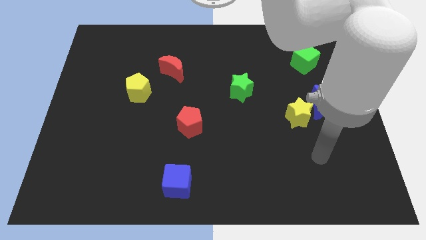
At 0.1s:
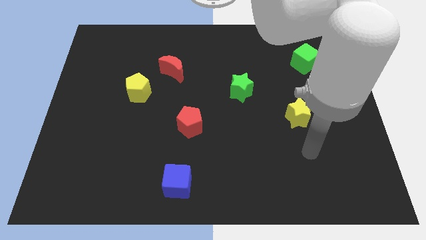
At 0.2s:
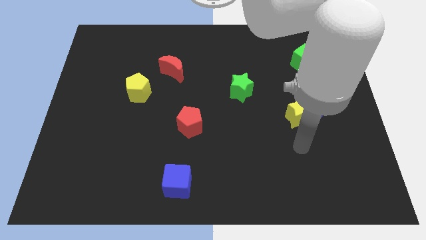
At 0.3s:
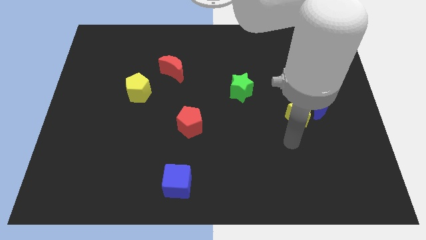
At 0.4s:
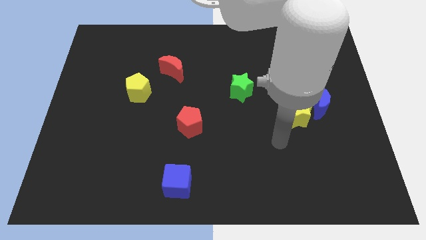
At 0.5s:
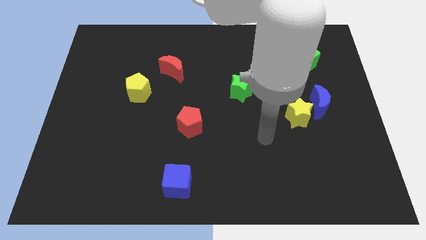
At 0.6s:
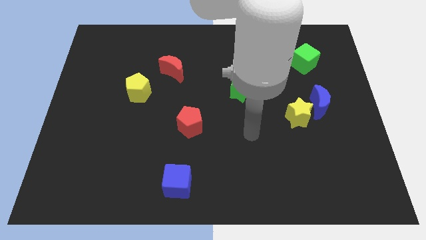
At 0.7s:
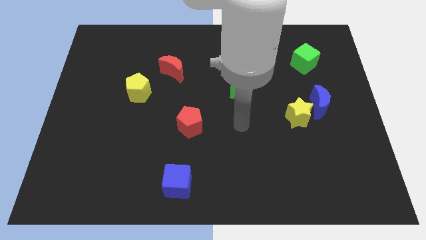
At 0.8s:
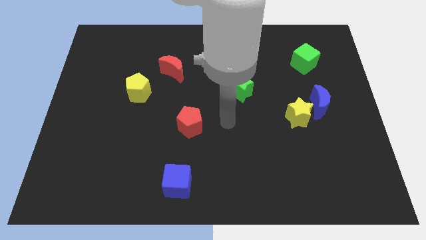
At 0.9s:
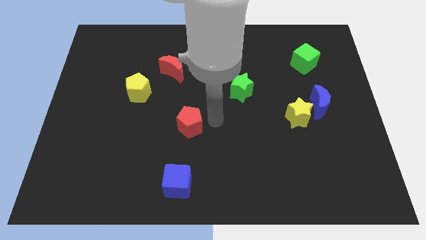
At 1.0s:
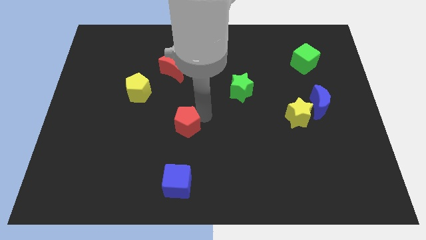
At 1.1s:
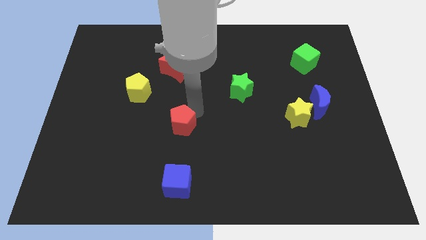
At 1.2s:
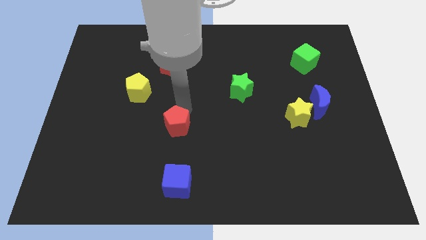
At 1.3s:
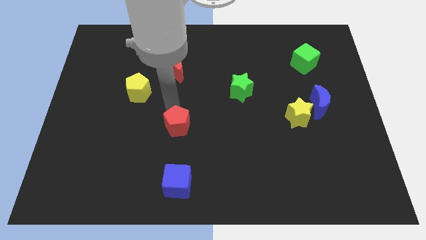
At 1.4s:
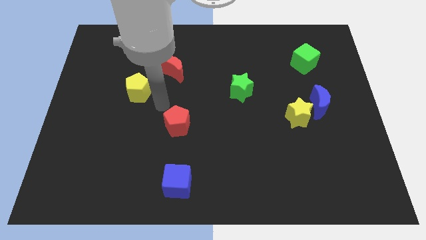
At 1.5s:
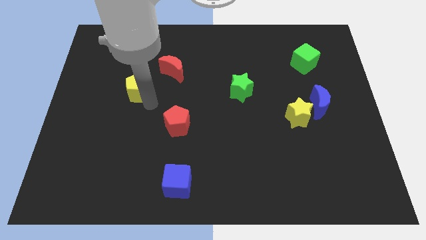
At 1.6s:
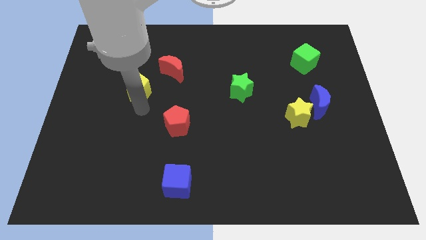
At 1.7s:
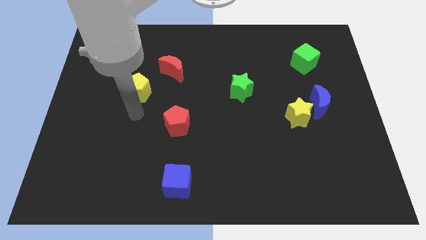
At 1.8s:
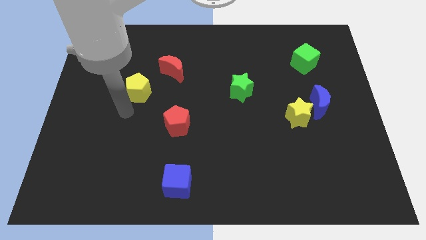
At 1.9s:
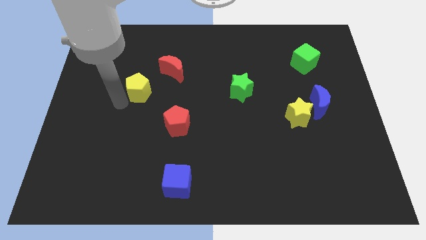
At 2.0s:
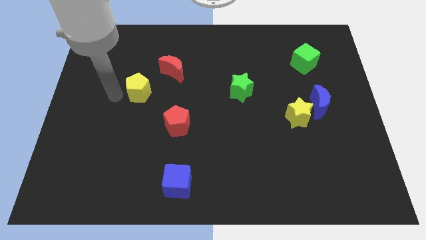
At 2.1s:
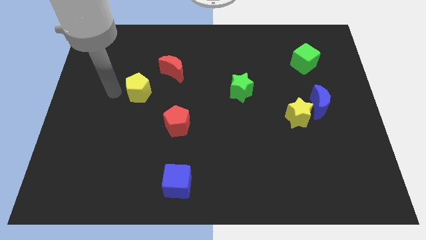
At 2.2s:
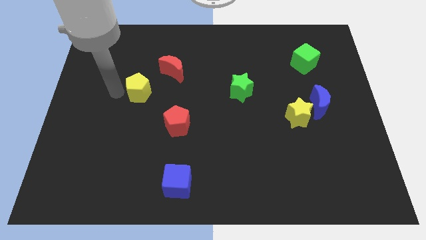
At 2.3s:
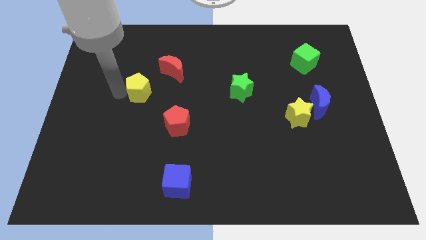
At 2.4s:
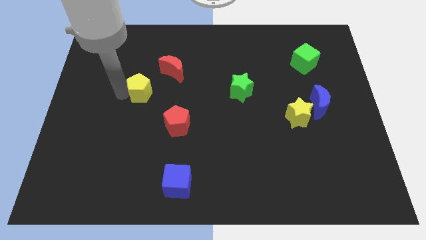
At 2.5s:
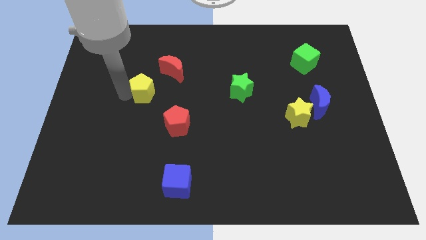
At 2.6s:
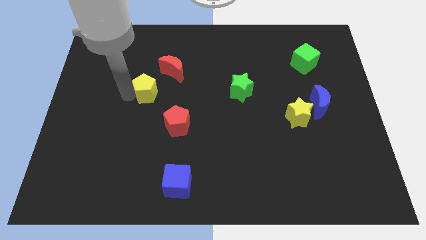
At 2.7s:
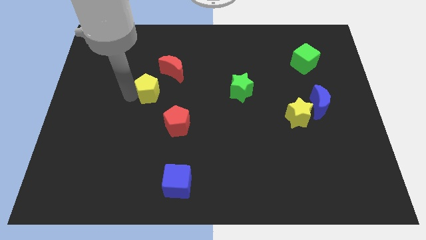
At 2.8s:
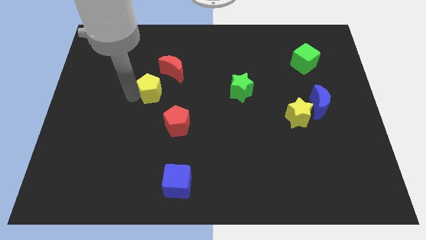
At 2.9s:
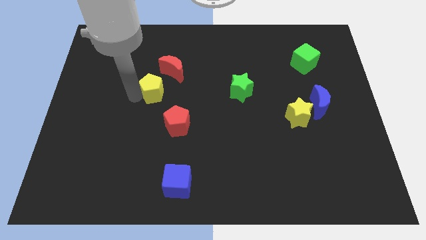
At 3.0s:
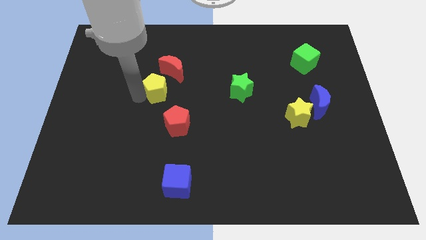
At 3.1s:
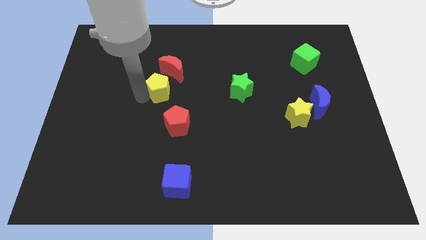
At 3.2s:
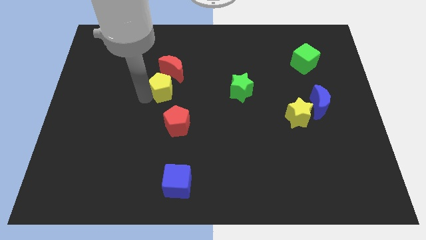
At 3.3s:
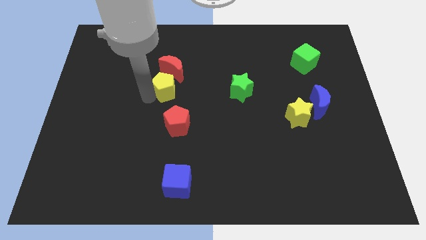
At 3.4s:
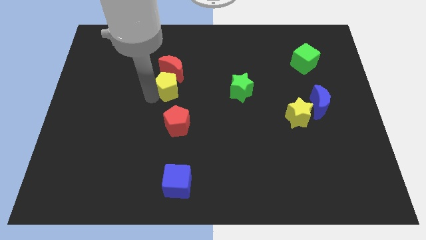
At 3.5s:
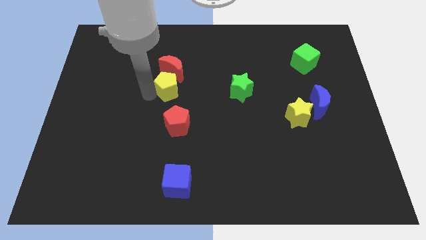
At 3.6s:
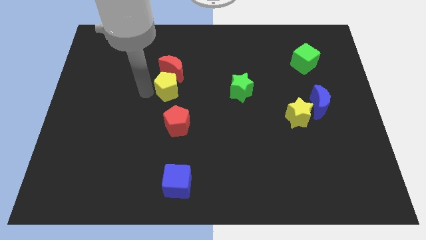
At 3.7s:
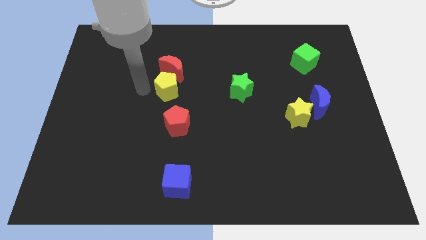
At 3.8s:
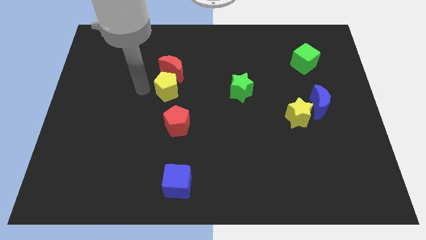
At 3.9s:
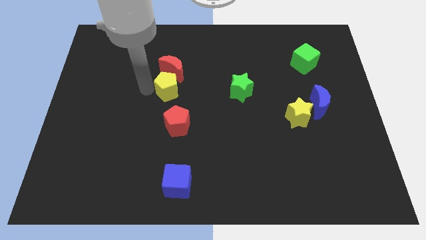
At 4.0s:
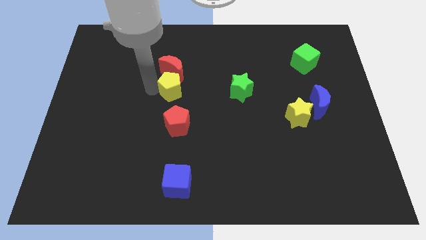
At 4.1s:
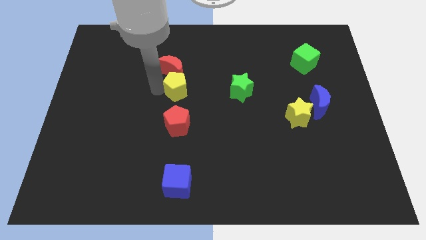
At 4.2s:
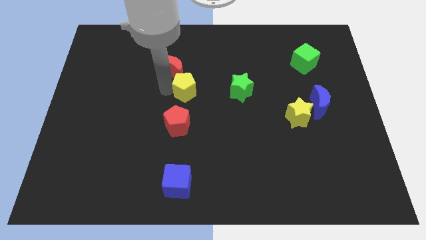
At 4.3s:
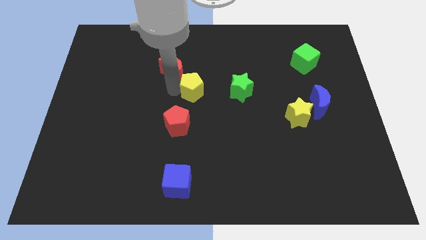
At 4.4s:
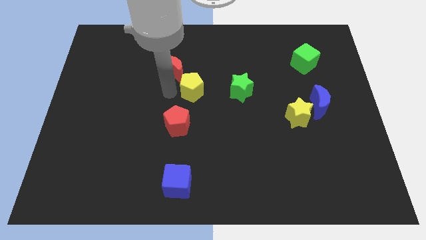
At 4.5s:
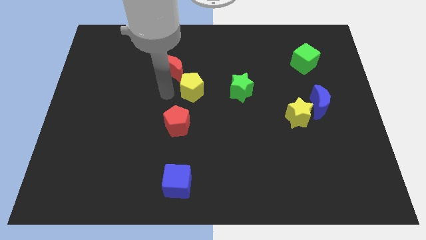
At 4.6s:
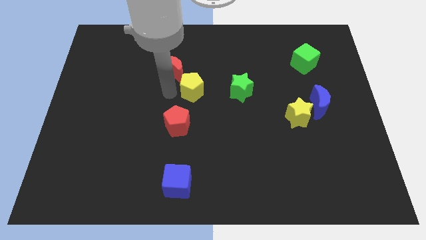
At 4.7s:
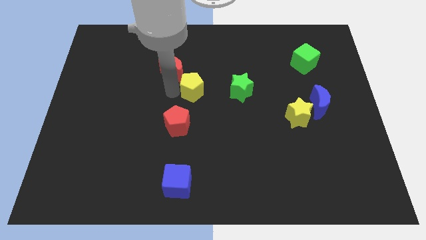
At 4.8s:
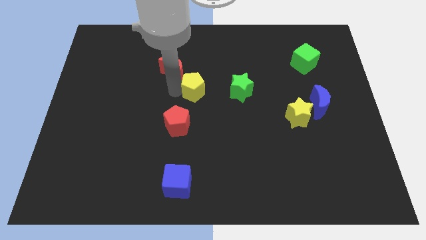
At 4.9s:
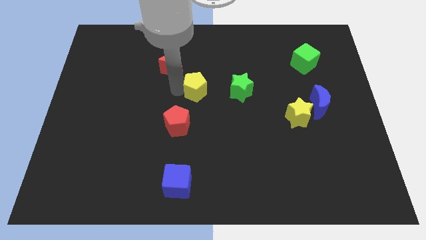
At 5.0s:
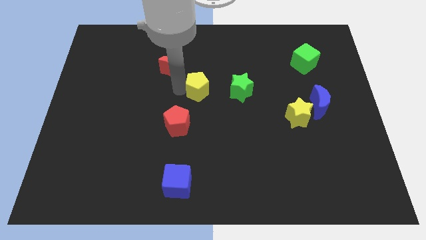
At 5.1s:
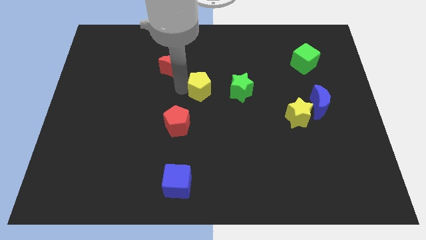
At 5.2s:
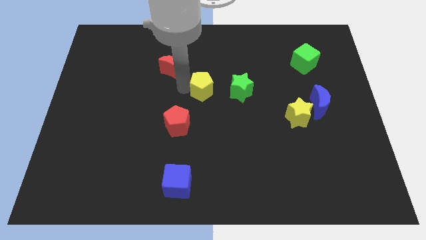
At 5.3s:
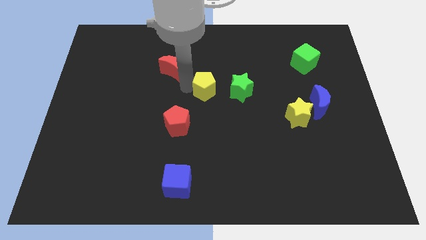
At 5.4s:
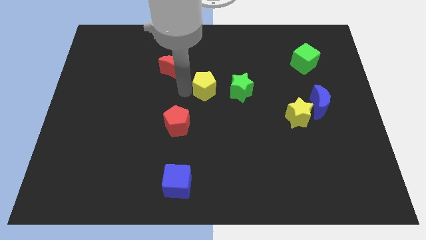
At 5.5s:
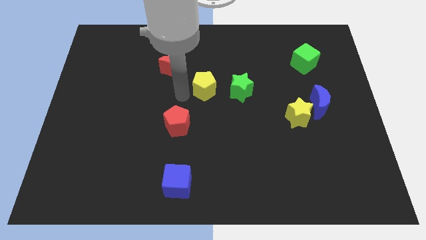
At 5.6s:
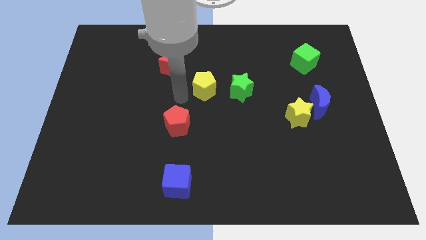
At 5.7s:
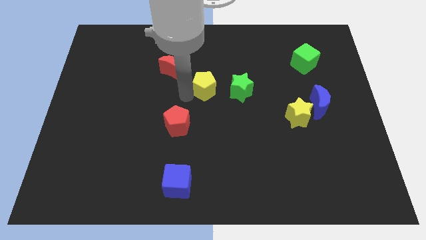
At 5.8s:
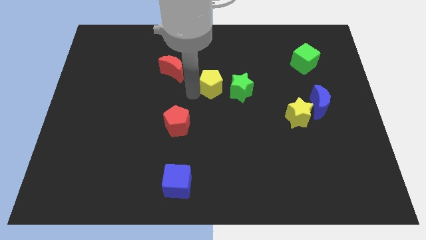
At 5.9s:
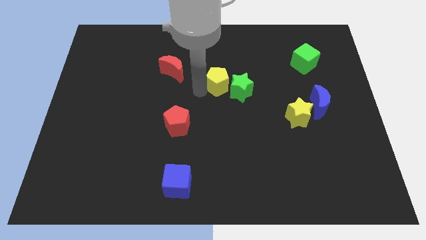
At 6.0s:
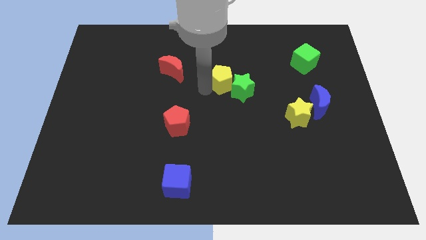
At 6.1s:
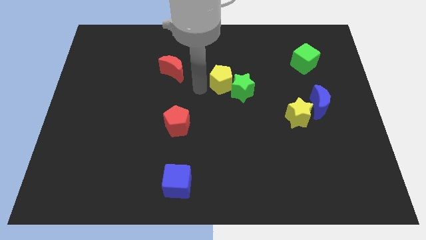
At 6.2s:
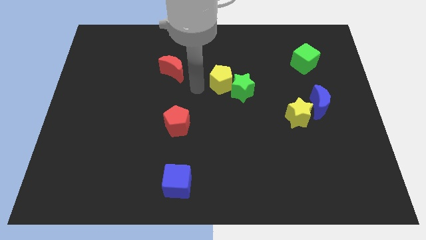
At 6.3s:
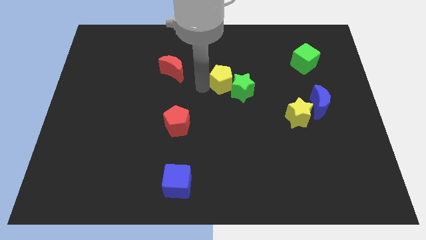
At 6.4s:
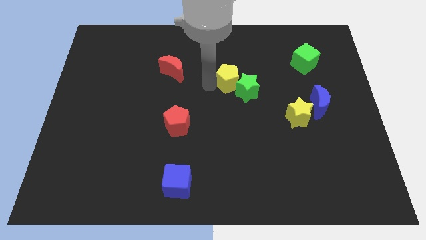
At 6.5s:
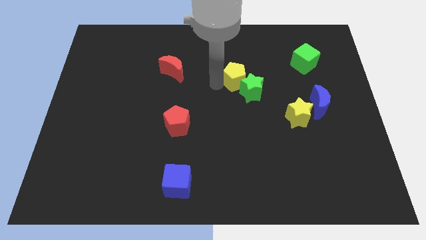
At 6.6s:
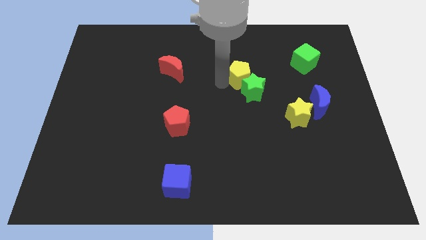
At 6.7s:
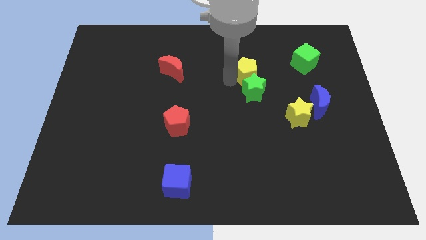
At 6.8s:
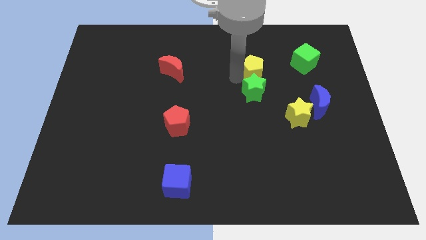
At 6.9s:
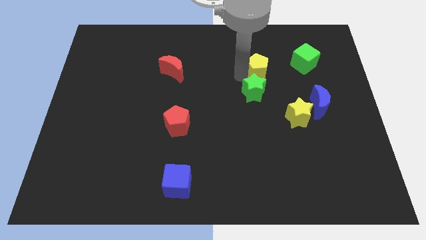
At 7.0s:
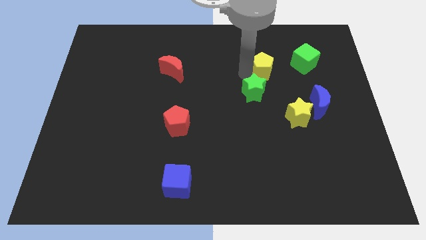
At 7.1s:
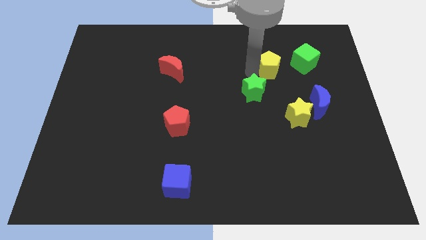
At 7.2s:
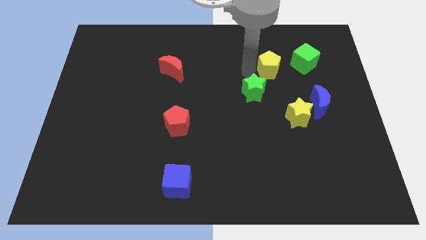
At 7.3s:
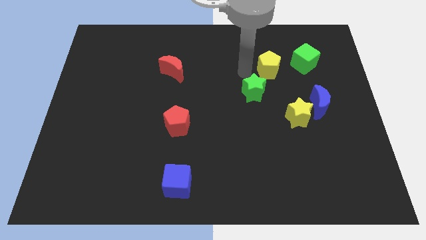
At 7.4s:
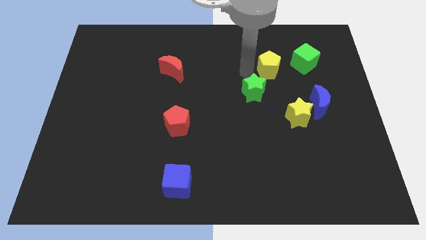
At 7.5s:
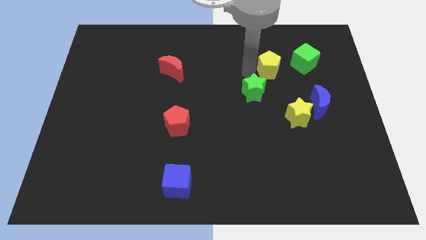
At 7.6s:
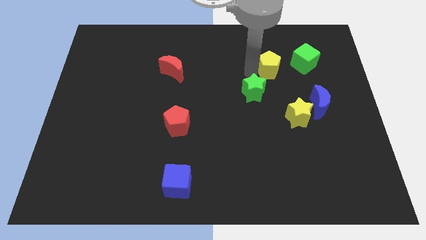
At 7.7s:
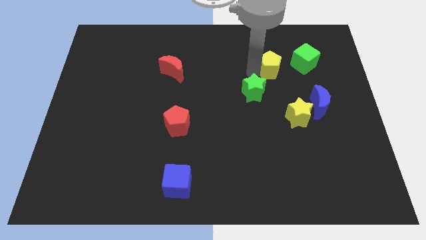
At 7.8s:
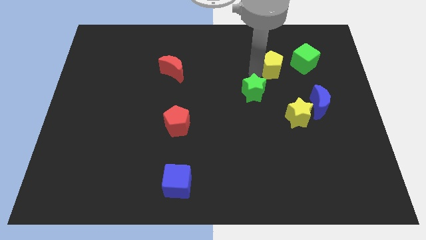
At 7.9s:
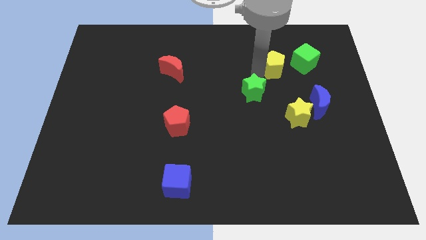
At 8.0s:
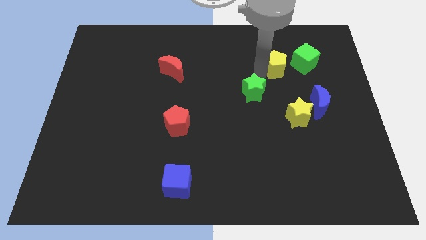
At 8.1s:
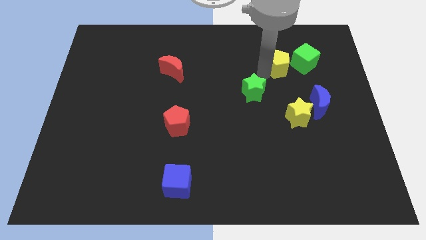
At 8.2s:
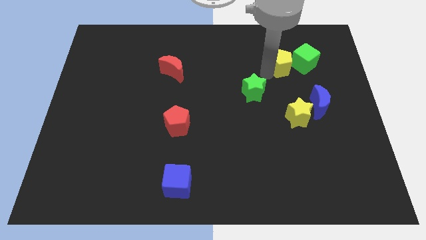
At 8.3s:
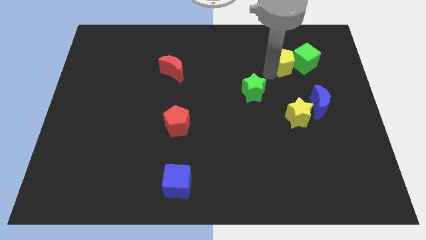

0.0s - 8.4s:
move the yellow pentagon next to the green cube
